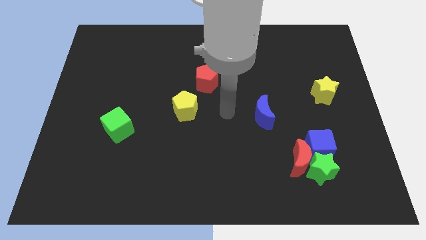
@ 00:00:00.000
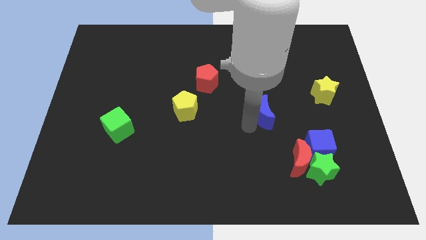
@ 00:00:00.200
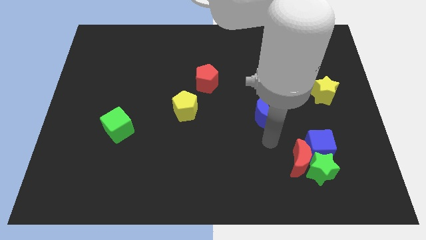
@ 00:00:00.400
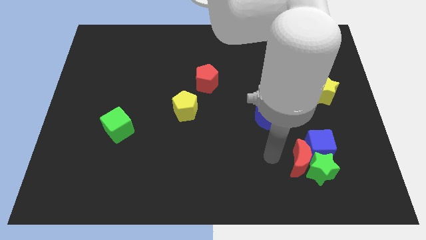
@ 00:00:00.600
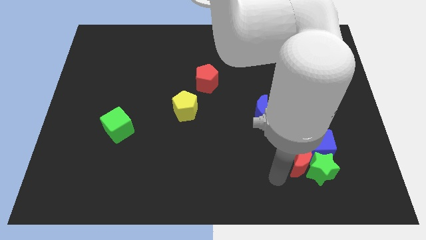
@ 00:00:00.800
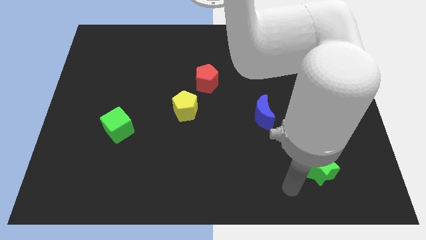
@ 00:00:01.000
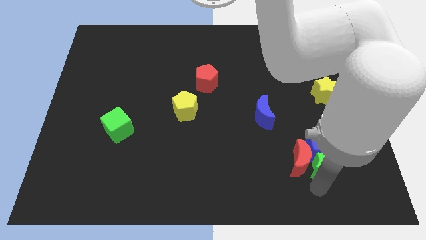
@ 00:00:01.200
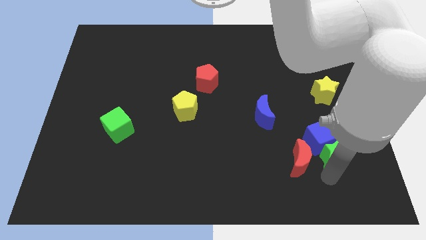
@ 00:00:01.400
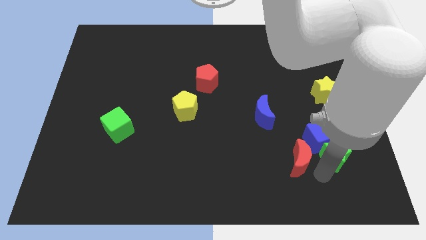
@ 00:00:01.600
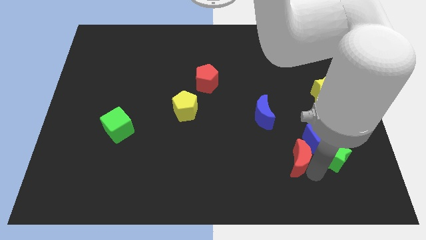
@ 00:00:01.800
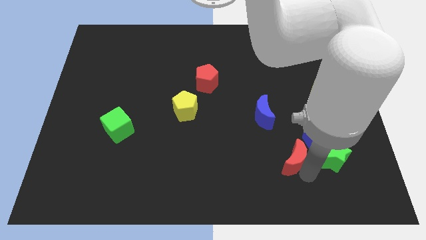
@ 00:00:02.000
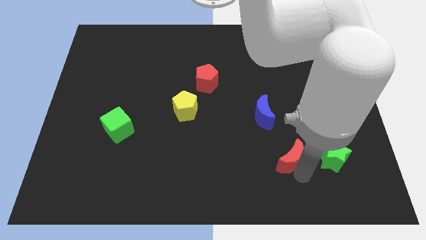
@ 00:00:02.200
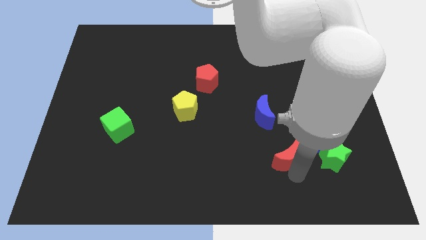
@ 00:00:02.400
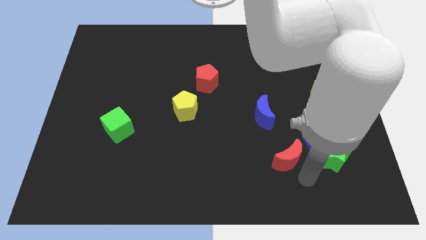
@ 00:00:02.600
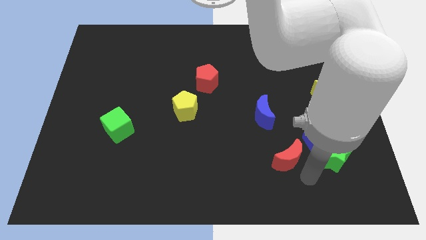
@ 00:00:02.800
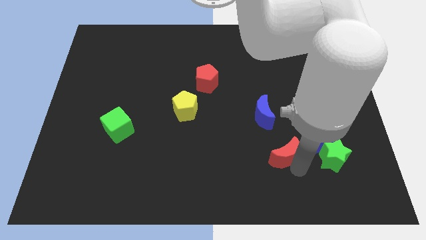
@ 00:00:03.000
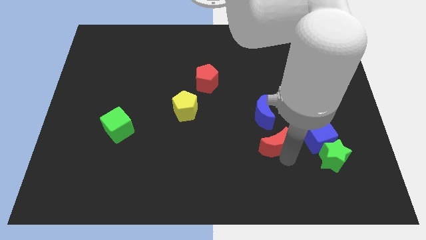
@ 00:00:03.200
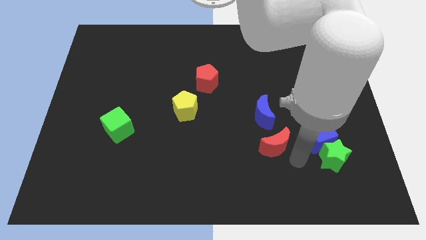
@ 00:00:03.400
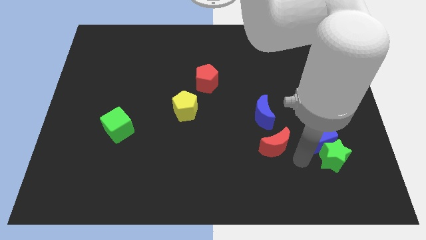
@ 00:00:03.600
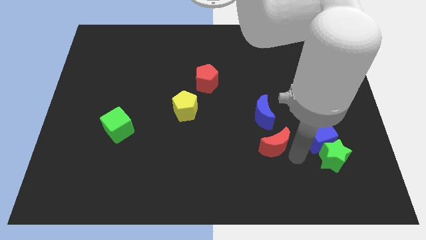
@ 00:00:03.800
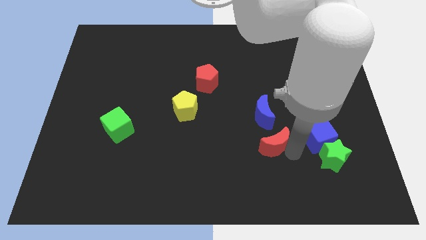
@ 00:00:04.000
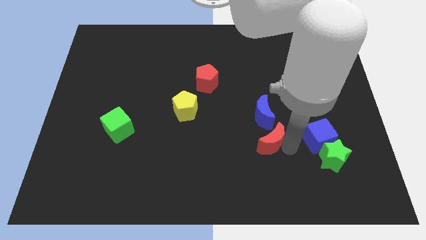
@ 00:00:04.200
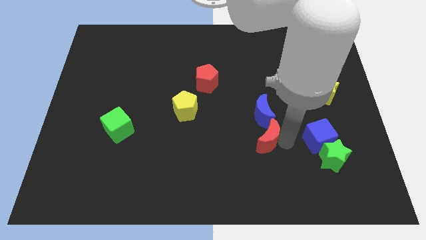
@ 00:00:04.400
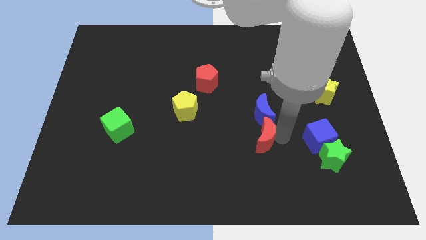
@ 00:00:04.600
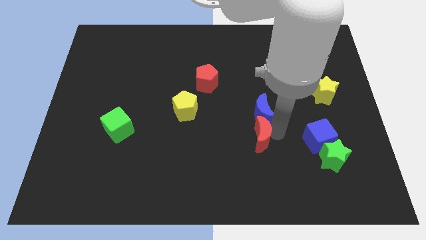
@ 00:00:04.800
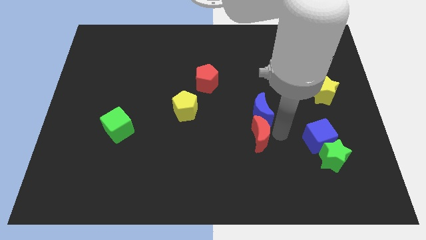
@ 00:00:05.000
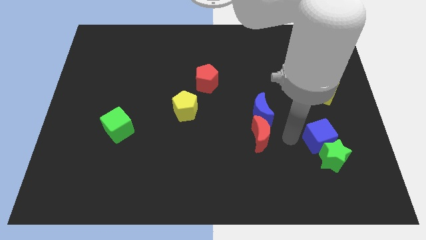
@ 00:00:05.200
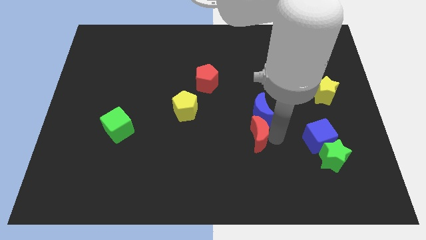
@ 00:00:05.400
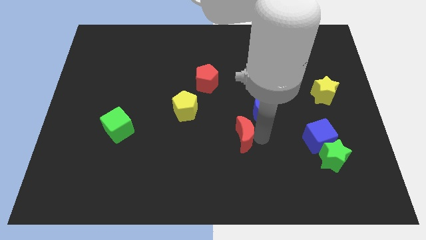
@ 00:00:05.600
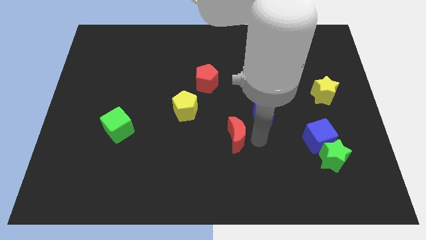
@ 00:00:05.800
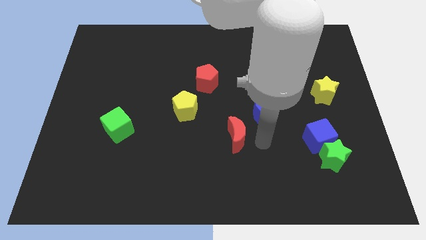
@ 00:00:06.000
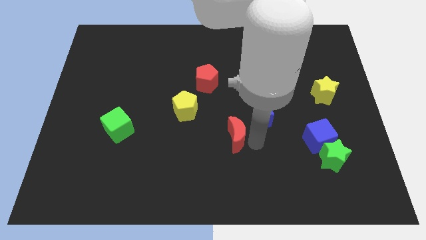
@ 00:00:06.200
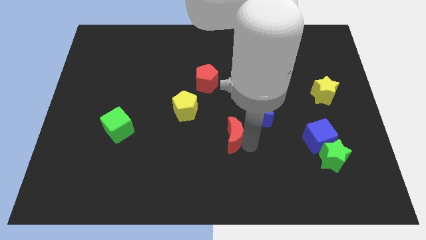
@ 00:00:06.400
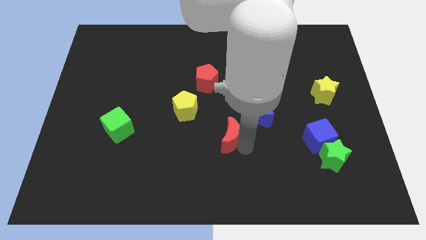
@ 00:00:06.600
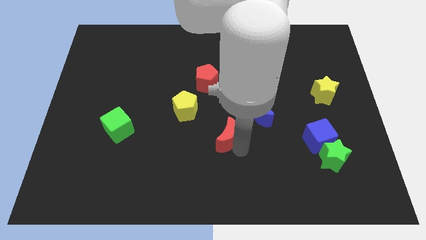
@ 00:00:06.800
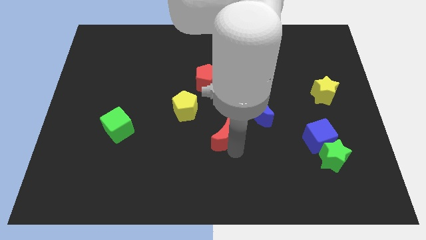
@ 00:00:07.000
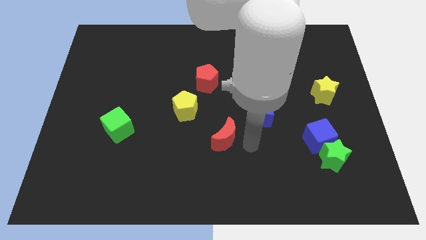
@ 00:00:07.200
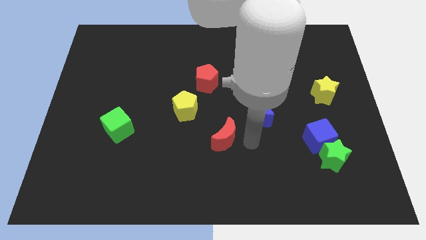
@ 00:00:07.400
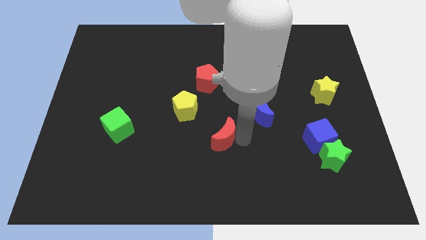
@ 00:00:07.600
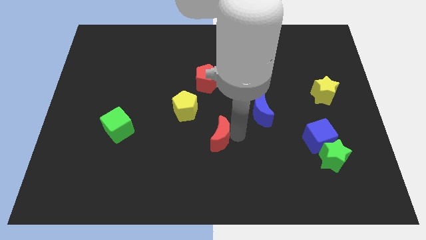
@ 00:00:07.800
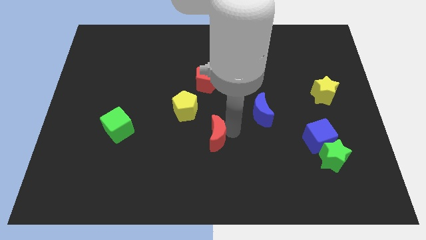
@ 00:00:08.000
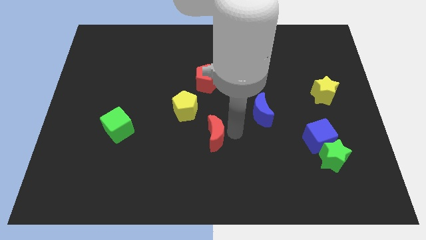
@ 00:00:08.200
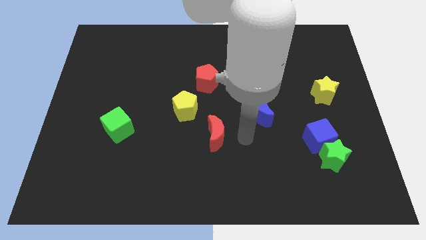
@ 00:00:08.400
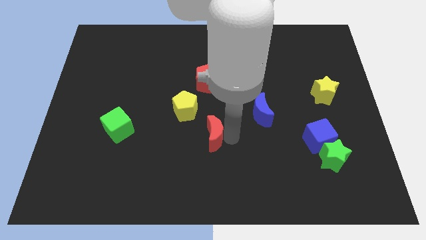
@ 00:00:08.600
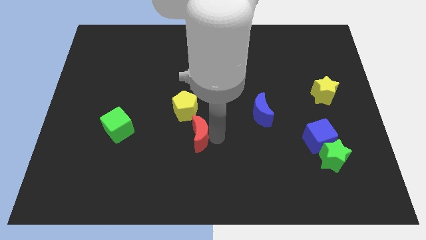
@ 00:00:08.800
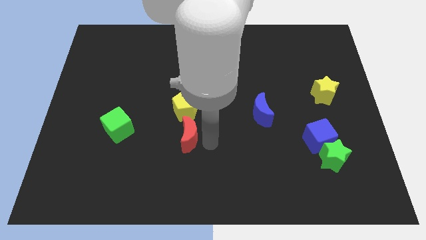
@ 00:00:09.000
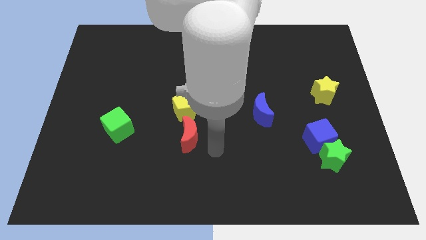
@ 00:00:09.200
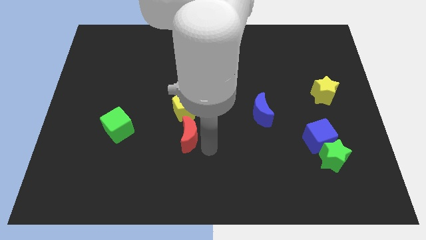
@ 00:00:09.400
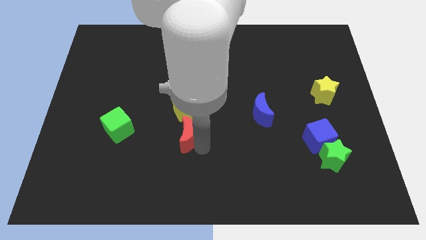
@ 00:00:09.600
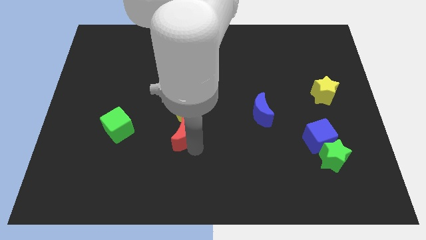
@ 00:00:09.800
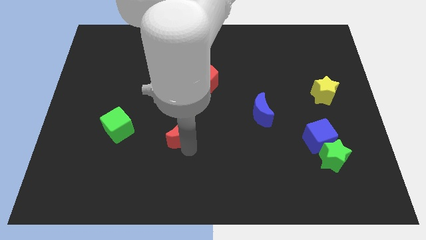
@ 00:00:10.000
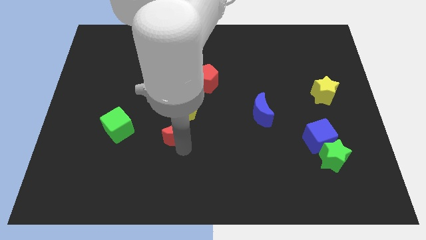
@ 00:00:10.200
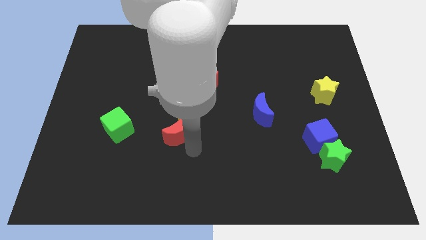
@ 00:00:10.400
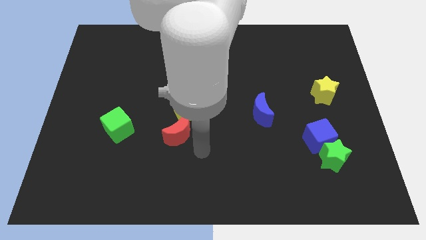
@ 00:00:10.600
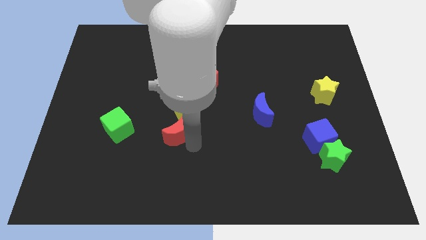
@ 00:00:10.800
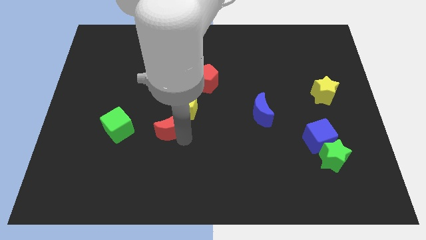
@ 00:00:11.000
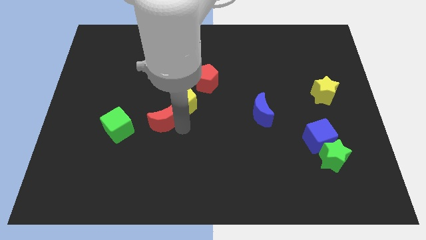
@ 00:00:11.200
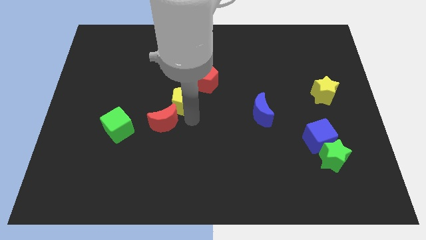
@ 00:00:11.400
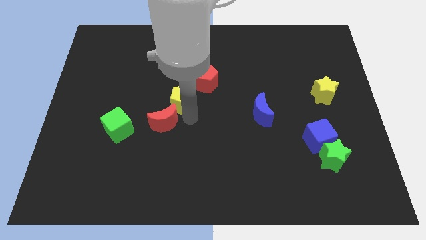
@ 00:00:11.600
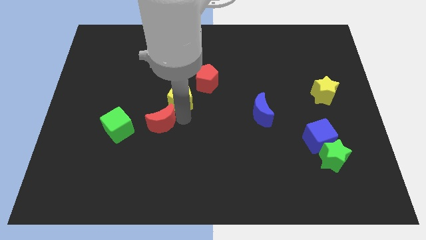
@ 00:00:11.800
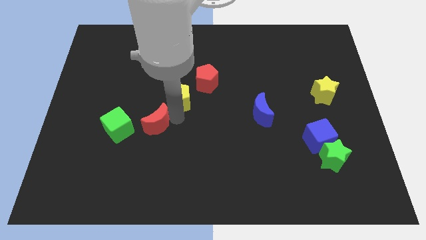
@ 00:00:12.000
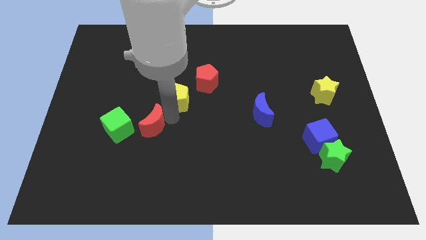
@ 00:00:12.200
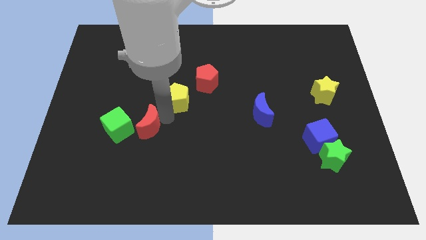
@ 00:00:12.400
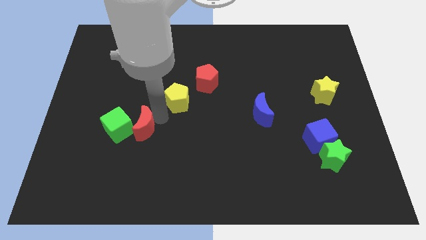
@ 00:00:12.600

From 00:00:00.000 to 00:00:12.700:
put the red moon to the green cube

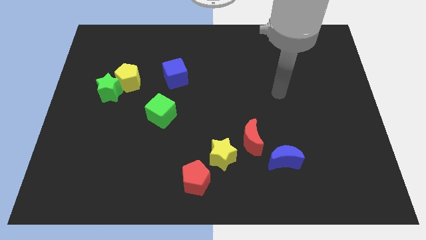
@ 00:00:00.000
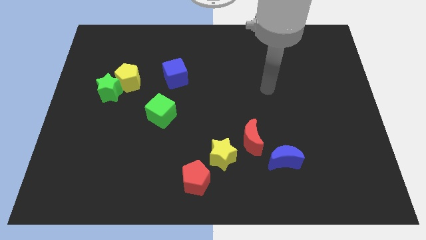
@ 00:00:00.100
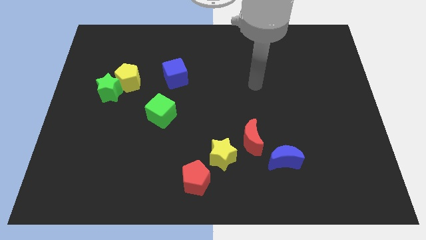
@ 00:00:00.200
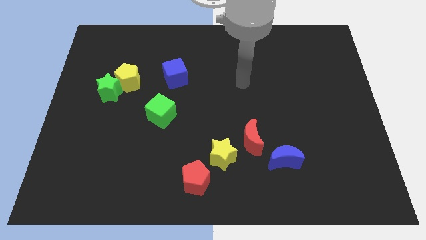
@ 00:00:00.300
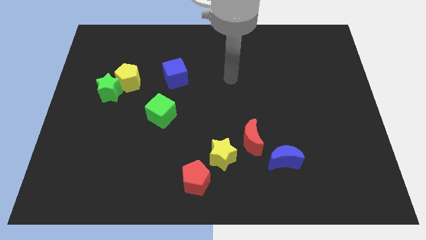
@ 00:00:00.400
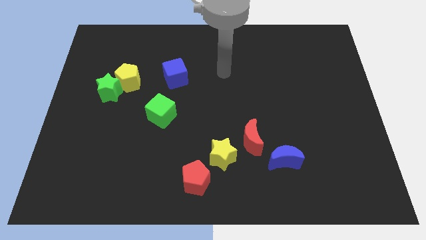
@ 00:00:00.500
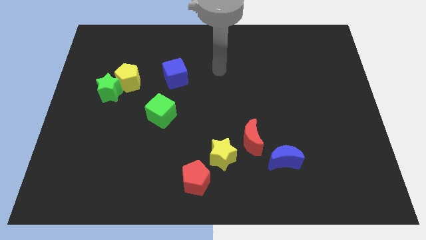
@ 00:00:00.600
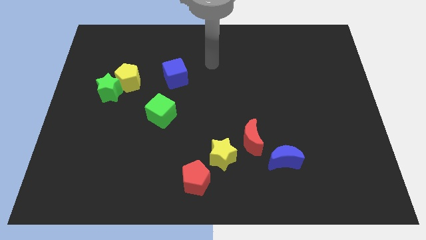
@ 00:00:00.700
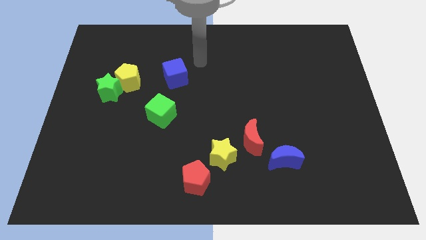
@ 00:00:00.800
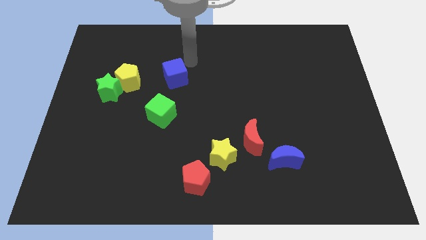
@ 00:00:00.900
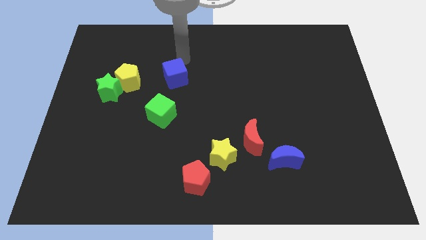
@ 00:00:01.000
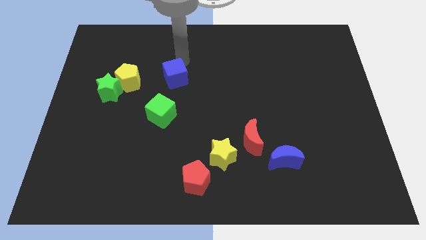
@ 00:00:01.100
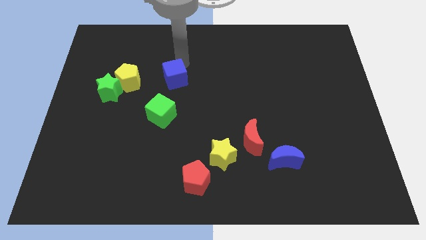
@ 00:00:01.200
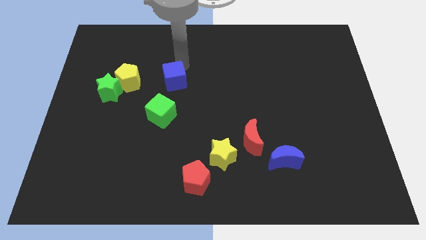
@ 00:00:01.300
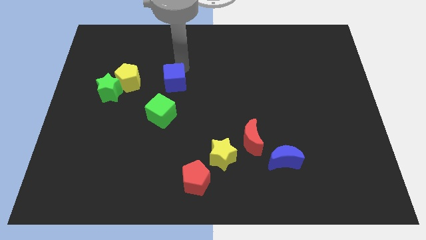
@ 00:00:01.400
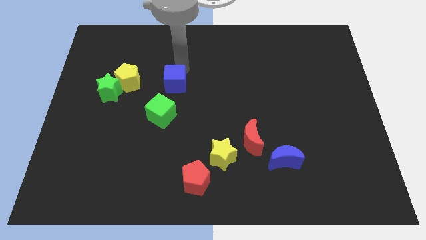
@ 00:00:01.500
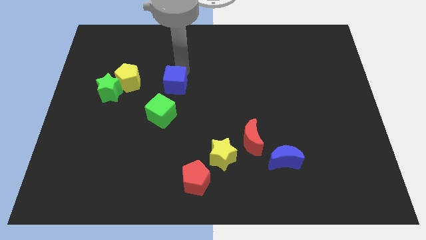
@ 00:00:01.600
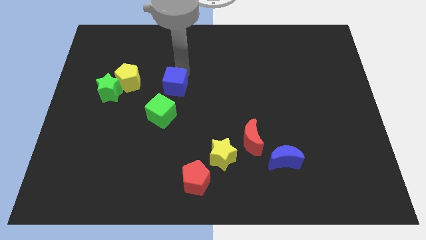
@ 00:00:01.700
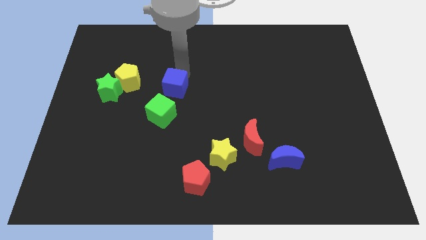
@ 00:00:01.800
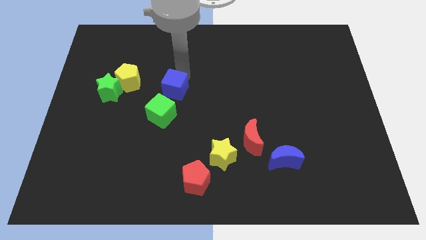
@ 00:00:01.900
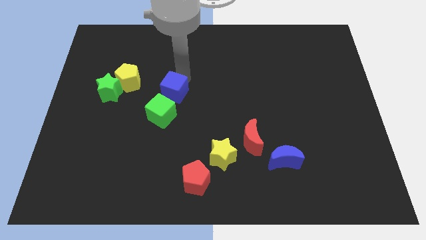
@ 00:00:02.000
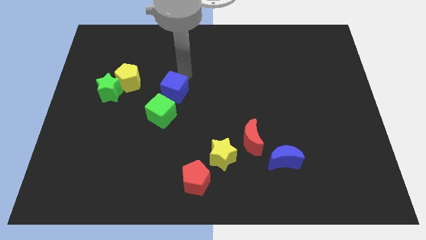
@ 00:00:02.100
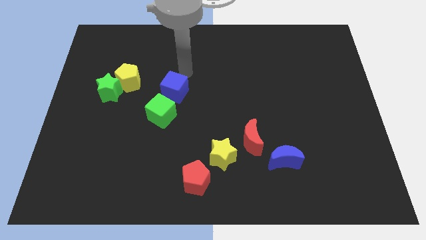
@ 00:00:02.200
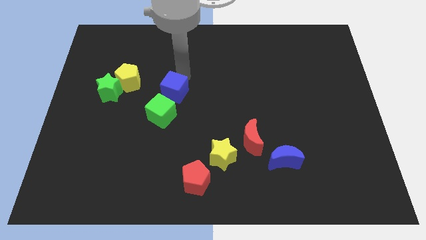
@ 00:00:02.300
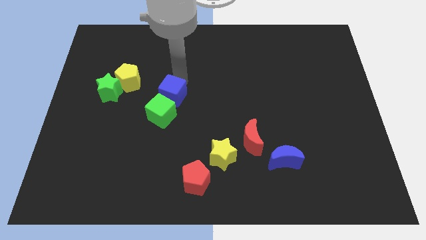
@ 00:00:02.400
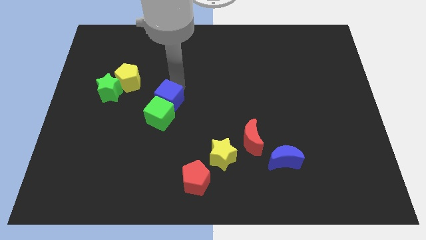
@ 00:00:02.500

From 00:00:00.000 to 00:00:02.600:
move the blue cube towards the green cube
